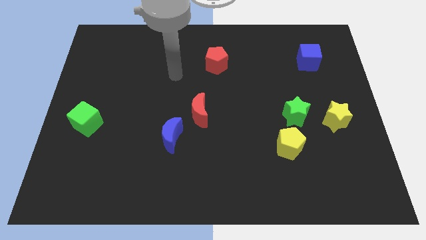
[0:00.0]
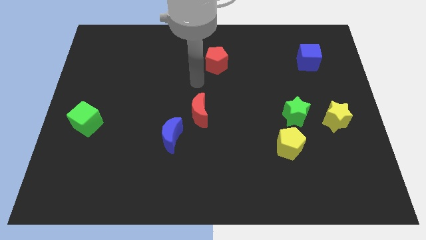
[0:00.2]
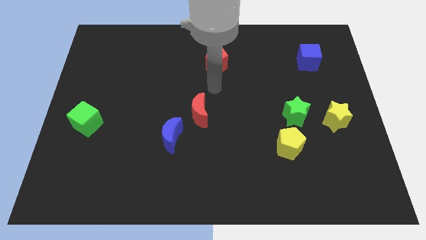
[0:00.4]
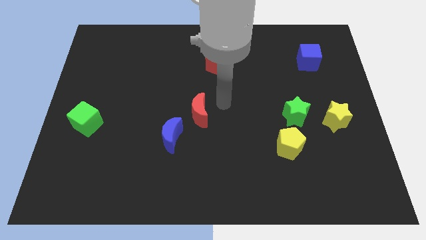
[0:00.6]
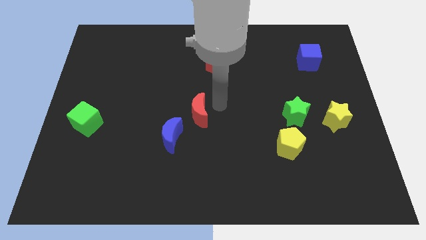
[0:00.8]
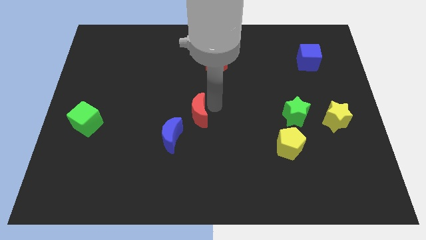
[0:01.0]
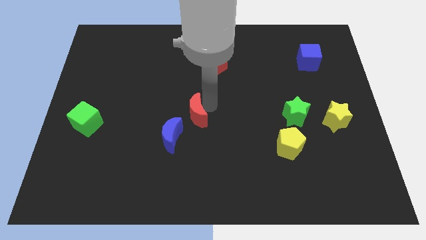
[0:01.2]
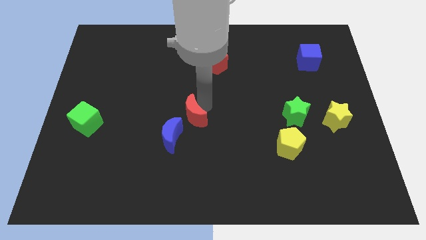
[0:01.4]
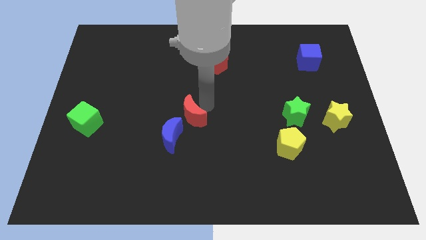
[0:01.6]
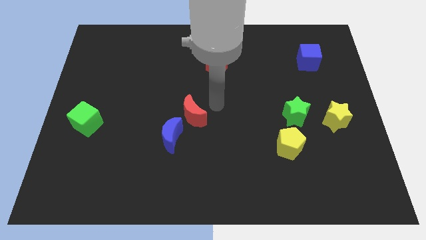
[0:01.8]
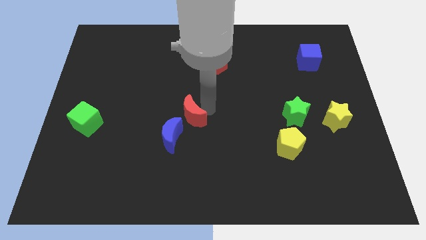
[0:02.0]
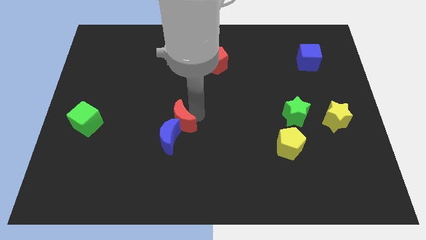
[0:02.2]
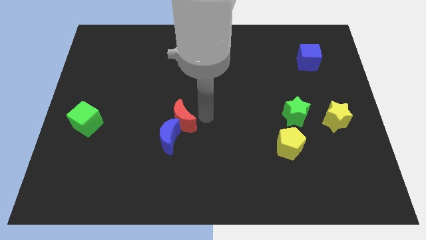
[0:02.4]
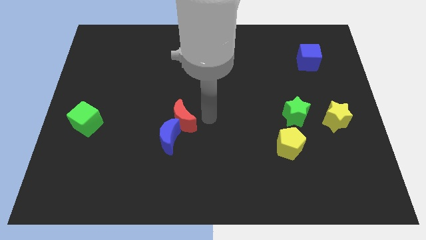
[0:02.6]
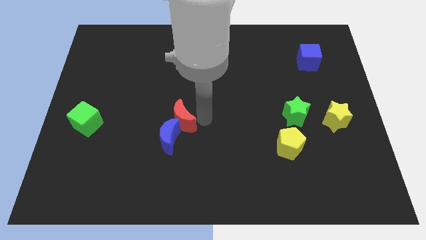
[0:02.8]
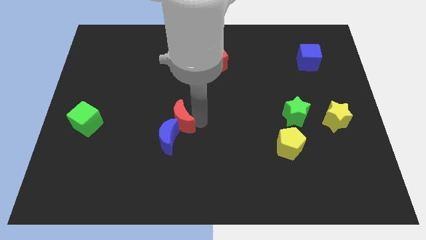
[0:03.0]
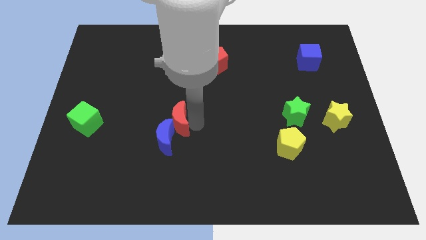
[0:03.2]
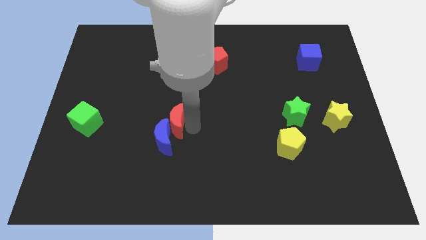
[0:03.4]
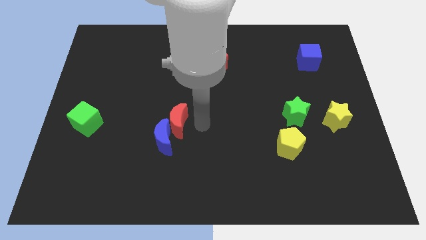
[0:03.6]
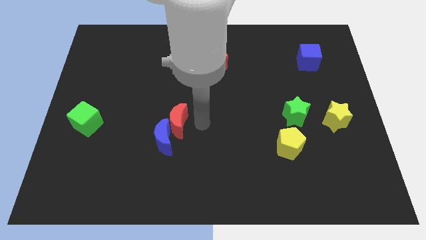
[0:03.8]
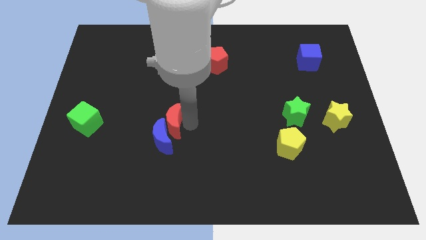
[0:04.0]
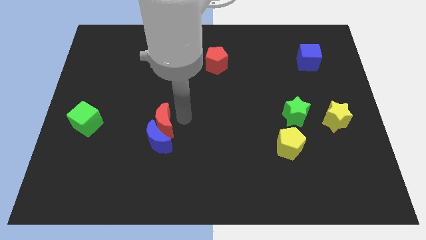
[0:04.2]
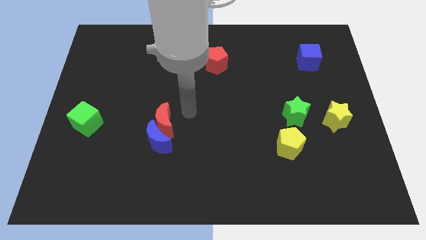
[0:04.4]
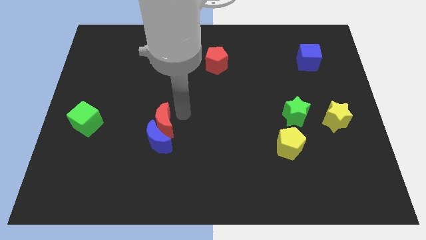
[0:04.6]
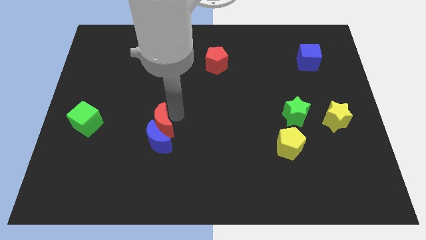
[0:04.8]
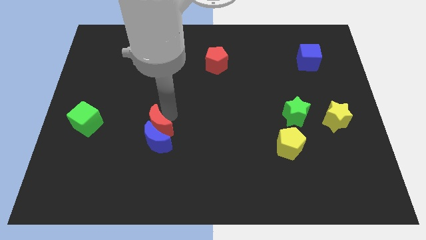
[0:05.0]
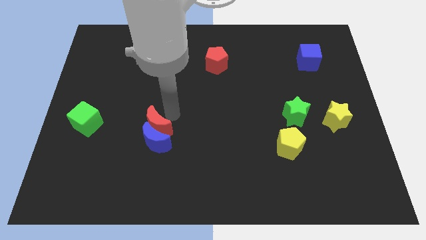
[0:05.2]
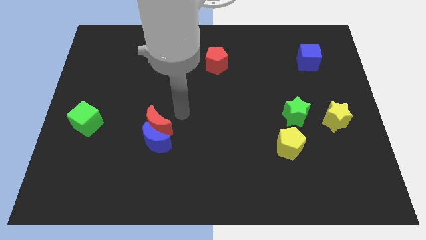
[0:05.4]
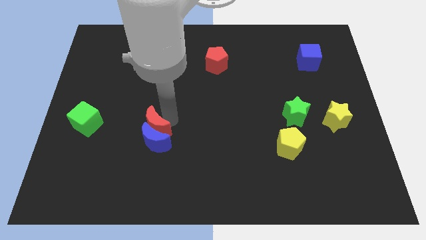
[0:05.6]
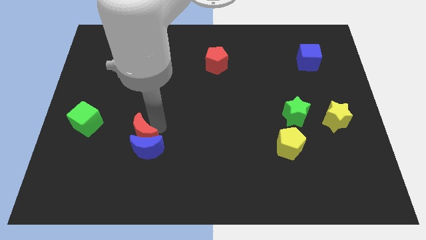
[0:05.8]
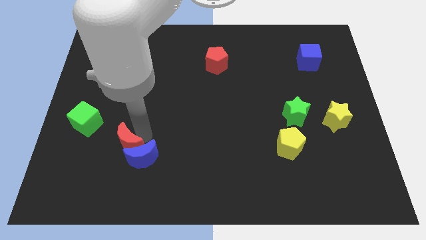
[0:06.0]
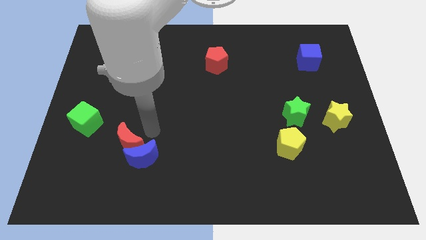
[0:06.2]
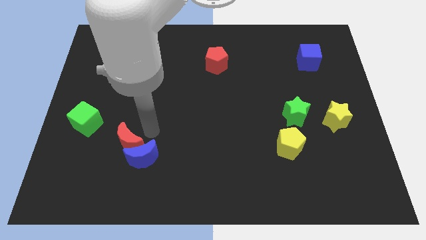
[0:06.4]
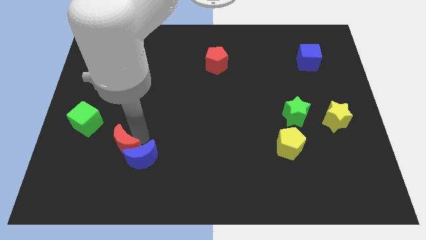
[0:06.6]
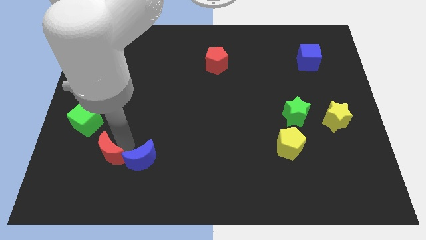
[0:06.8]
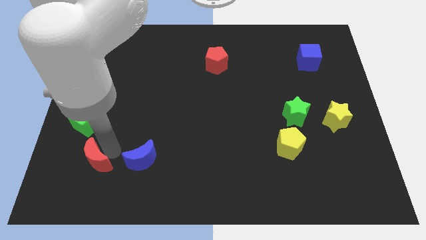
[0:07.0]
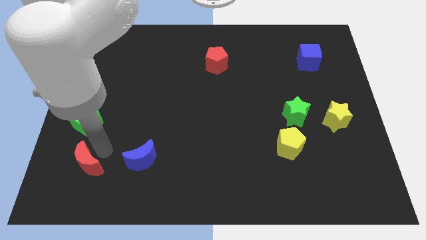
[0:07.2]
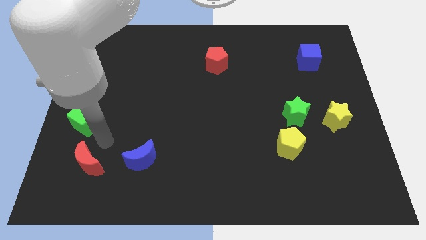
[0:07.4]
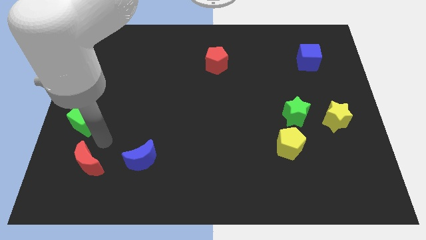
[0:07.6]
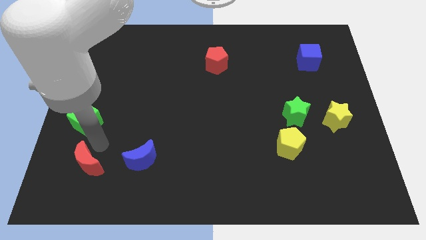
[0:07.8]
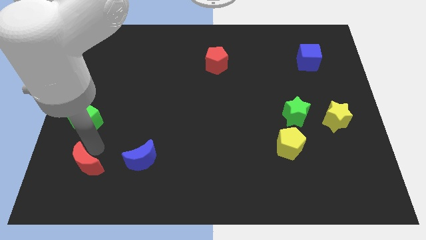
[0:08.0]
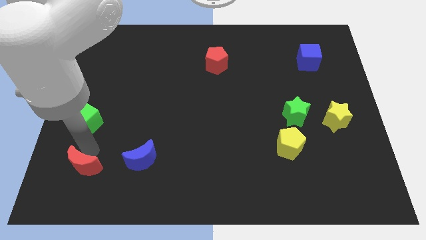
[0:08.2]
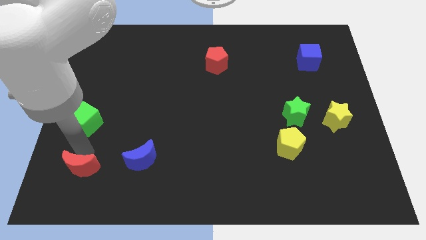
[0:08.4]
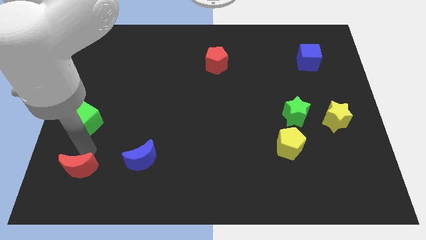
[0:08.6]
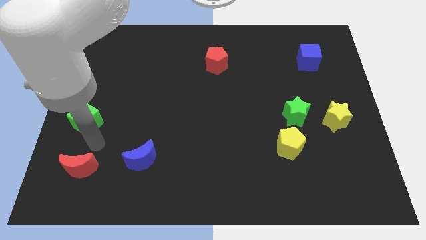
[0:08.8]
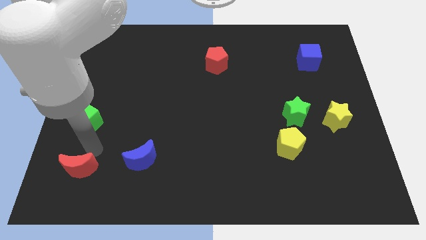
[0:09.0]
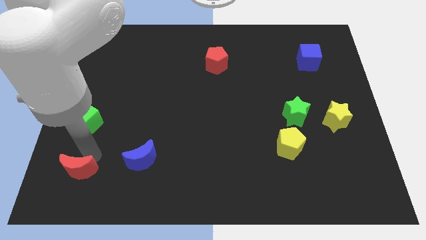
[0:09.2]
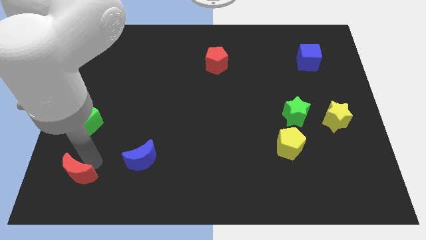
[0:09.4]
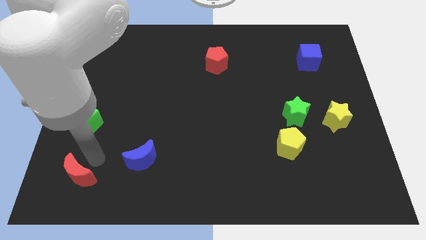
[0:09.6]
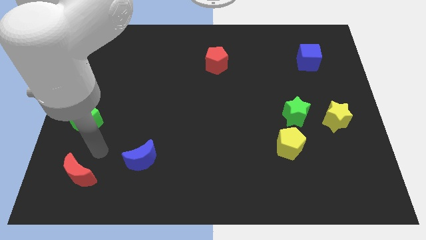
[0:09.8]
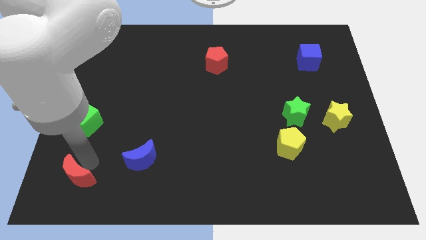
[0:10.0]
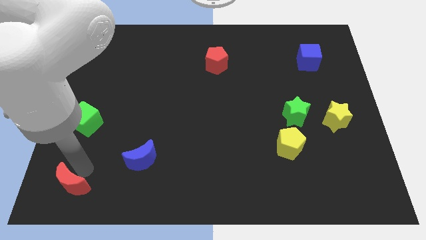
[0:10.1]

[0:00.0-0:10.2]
slide the red moon to the bottom left of the board

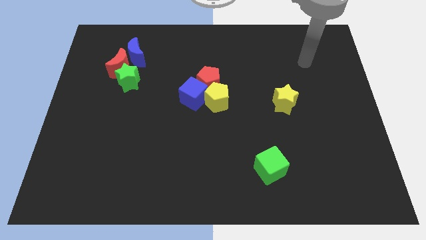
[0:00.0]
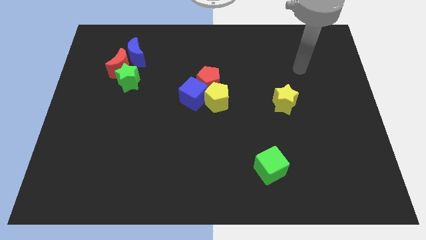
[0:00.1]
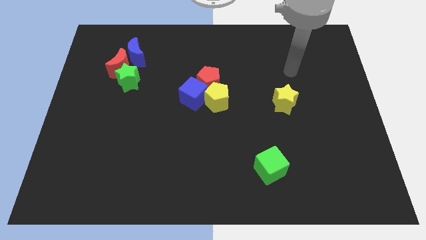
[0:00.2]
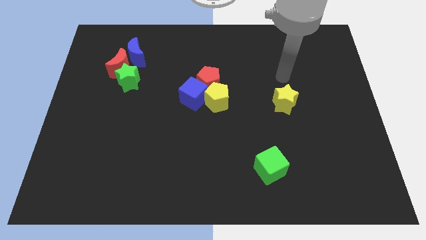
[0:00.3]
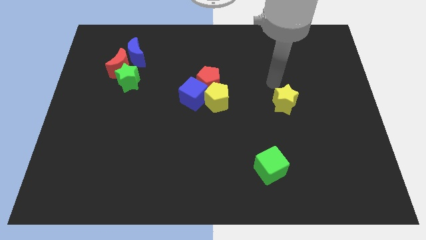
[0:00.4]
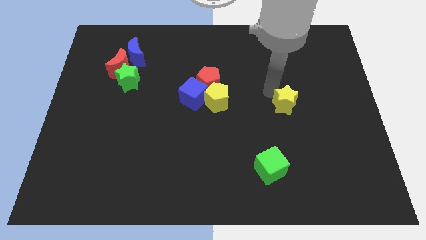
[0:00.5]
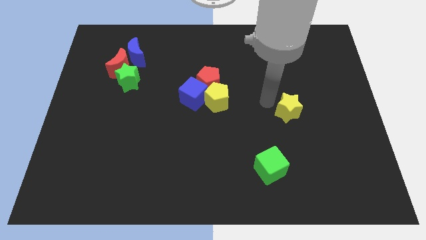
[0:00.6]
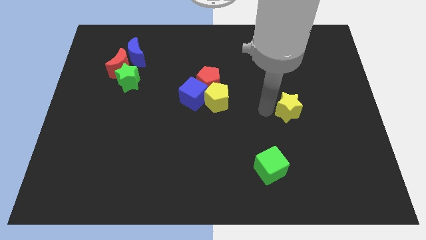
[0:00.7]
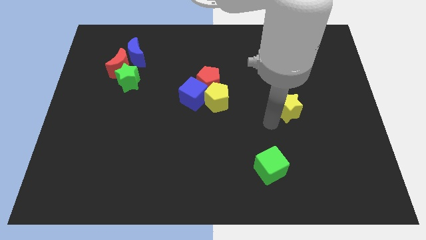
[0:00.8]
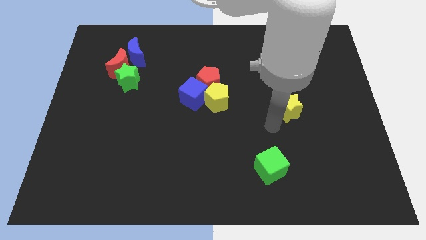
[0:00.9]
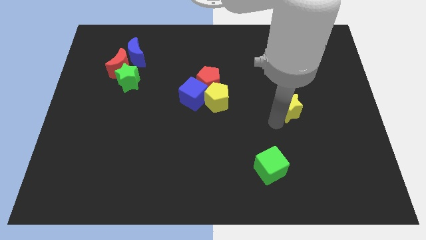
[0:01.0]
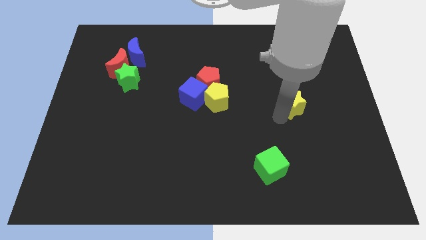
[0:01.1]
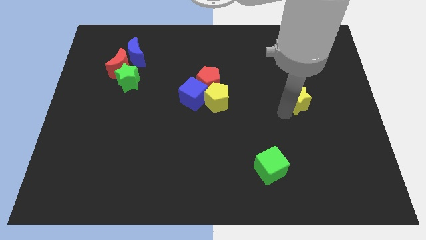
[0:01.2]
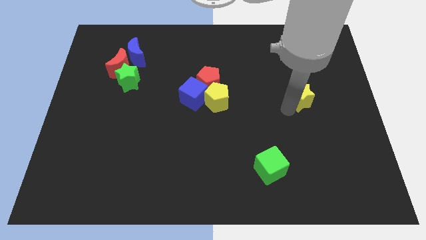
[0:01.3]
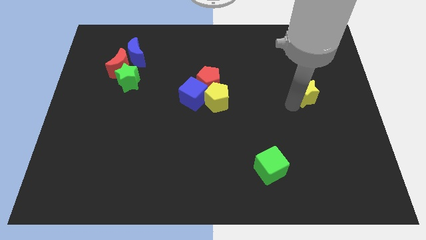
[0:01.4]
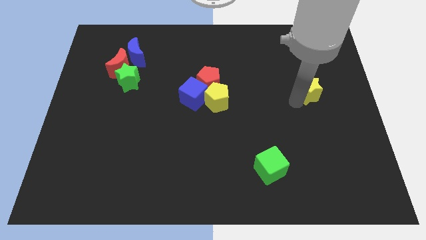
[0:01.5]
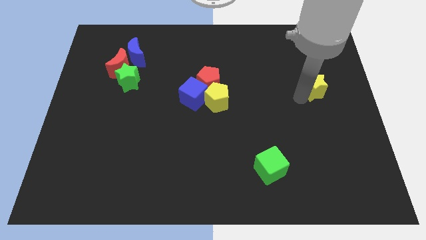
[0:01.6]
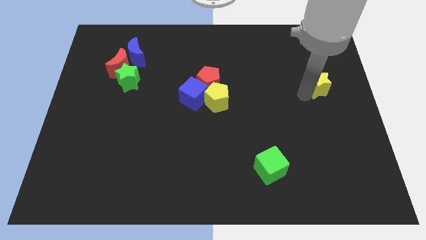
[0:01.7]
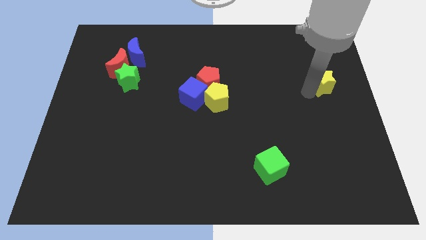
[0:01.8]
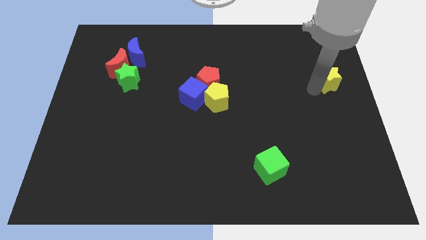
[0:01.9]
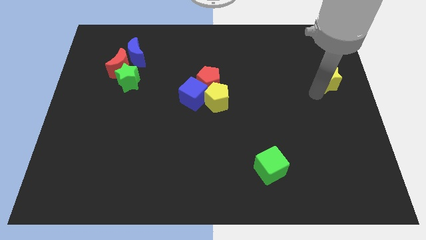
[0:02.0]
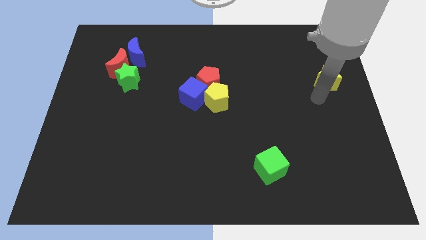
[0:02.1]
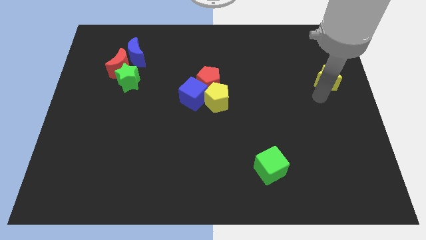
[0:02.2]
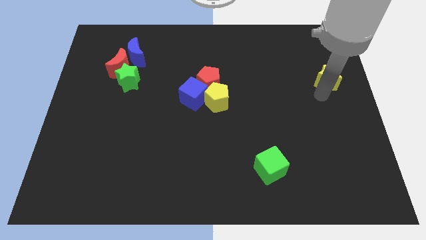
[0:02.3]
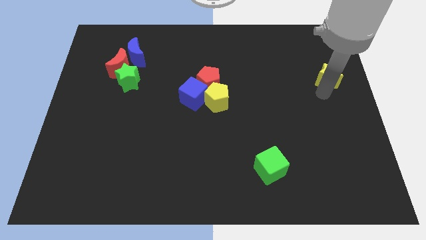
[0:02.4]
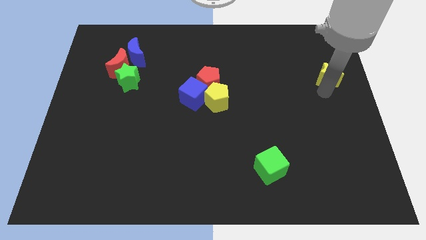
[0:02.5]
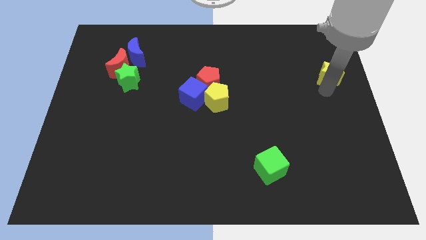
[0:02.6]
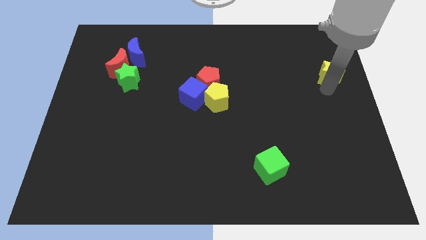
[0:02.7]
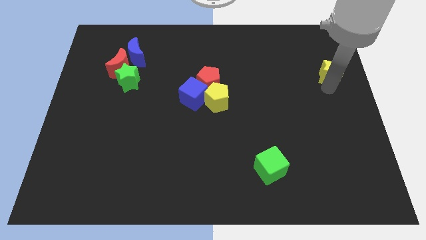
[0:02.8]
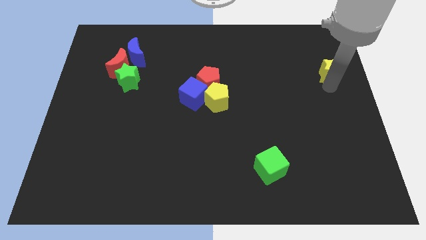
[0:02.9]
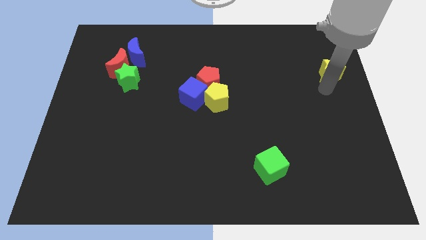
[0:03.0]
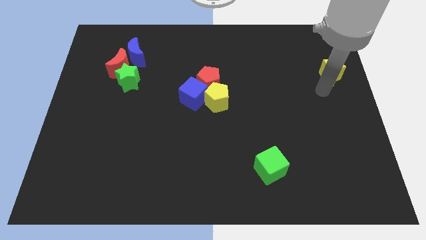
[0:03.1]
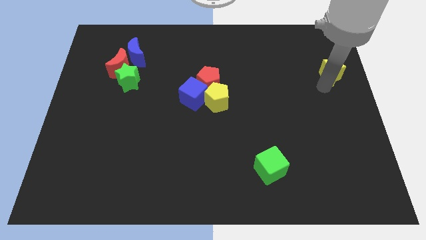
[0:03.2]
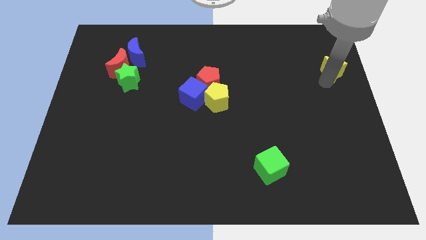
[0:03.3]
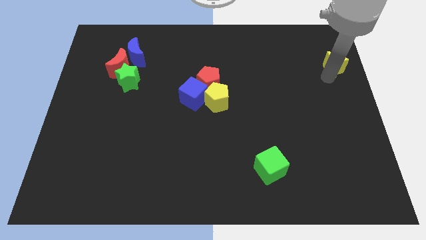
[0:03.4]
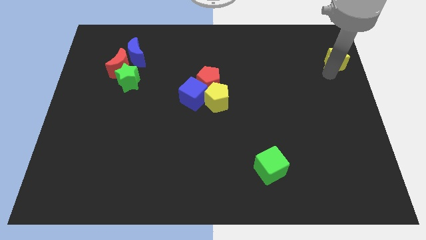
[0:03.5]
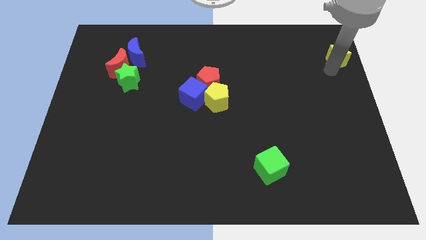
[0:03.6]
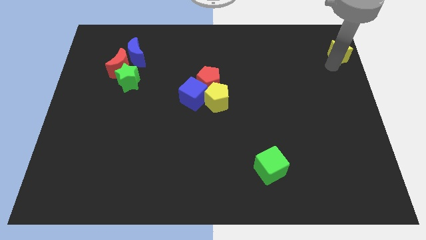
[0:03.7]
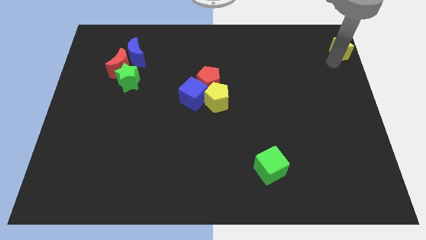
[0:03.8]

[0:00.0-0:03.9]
put the yellow star to the upper right corner
